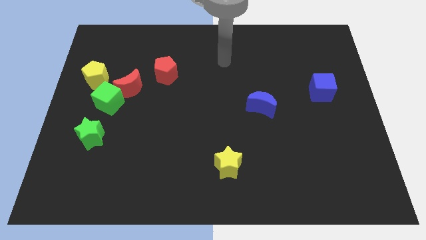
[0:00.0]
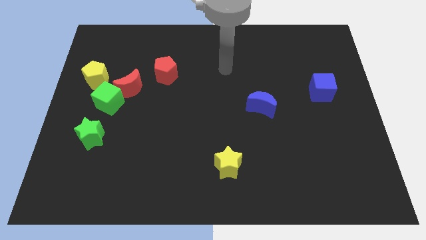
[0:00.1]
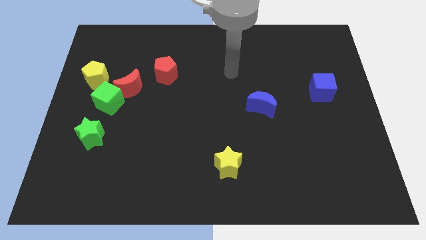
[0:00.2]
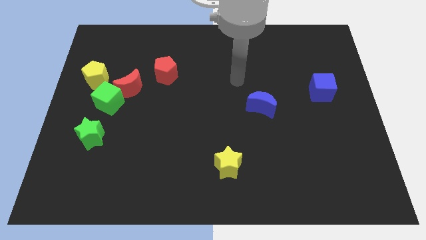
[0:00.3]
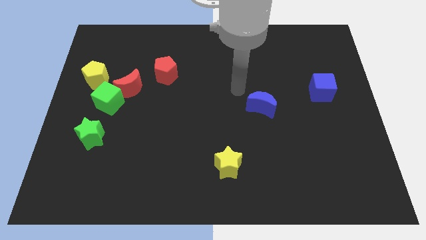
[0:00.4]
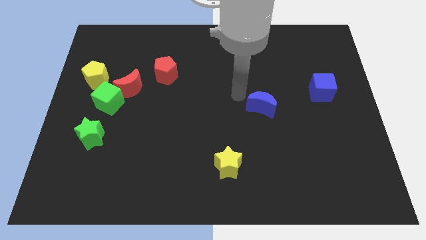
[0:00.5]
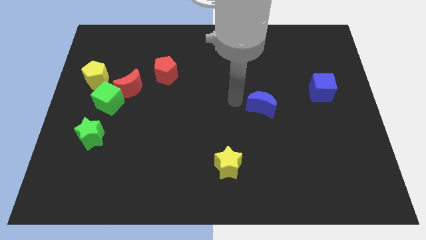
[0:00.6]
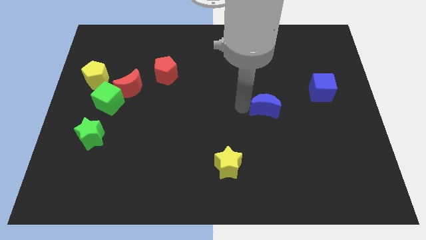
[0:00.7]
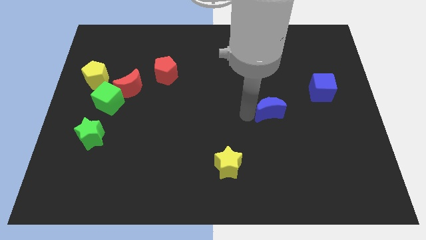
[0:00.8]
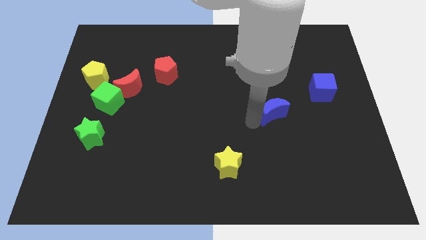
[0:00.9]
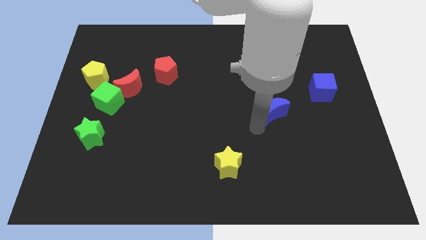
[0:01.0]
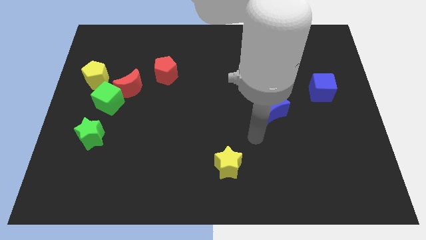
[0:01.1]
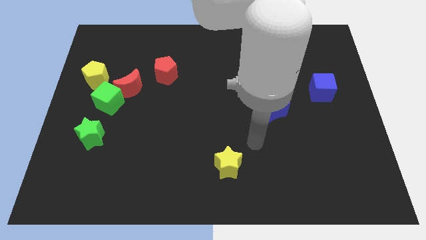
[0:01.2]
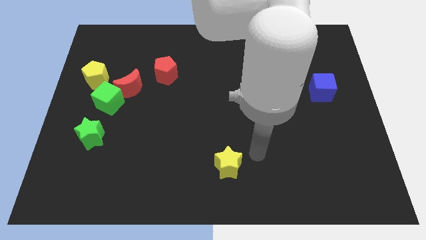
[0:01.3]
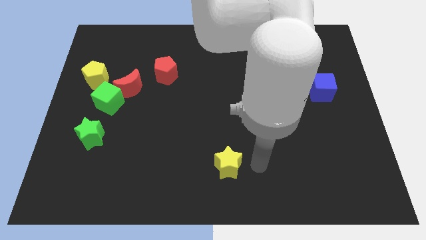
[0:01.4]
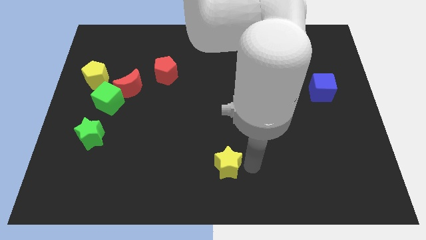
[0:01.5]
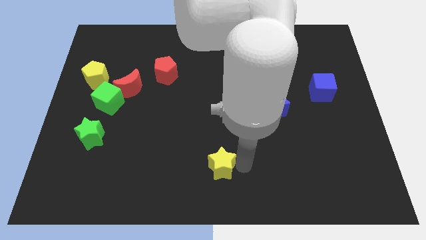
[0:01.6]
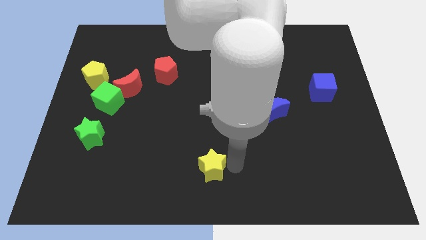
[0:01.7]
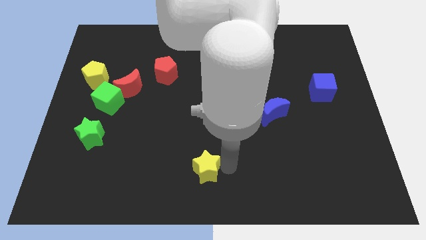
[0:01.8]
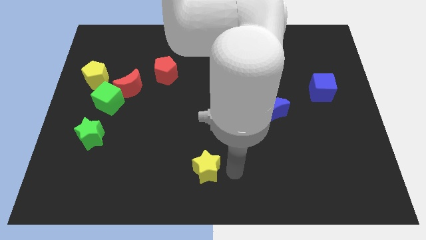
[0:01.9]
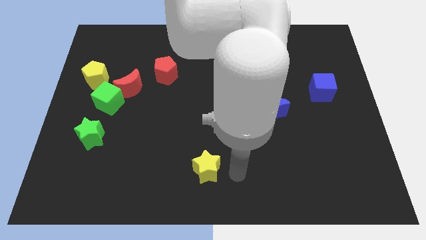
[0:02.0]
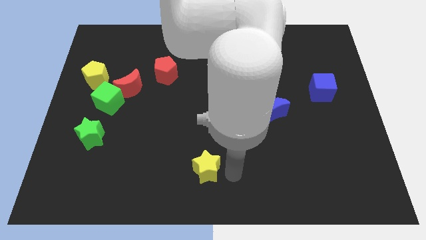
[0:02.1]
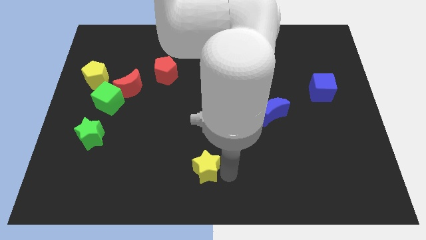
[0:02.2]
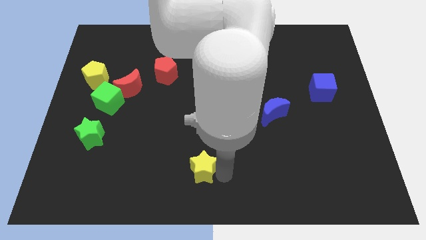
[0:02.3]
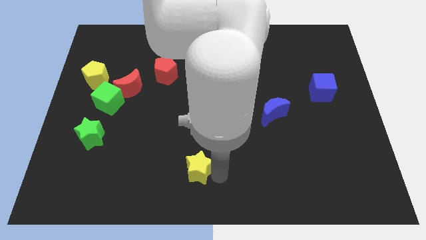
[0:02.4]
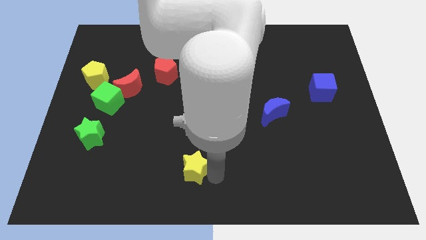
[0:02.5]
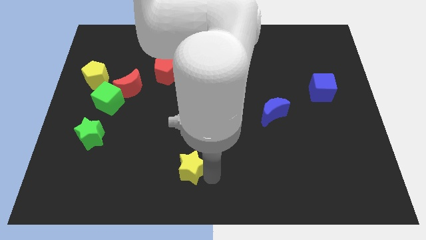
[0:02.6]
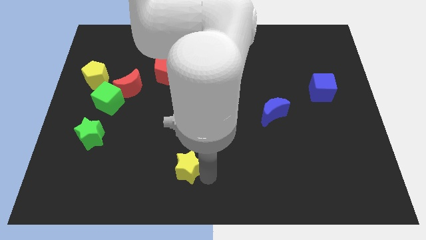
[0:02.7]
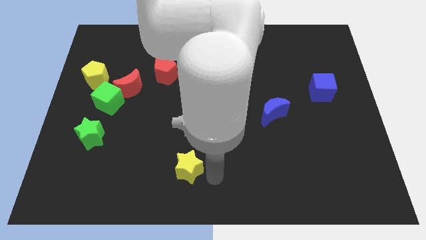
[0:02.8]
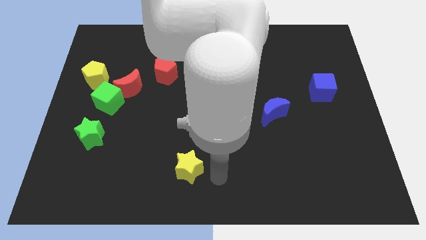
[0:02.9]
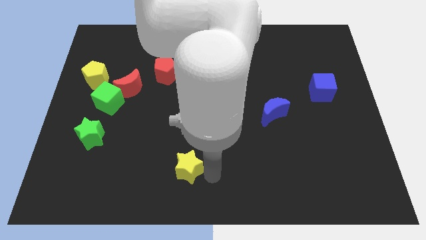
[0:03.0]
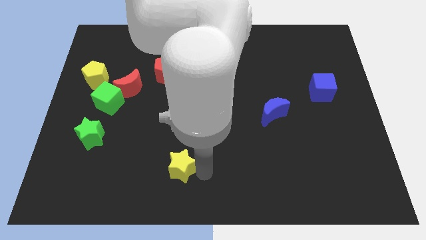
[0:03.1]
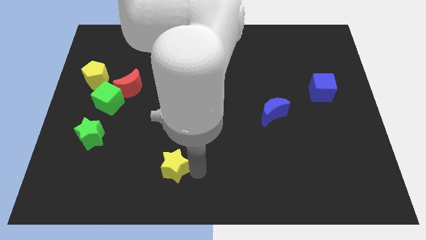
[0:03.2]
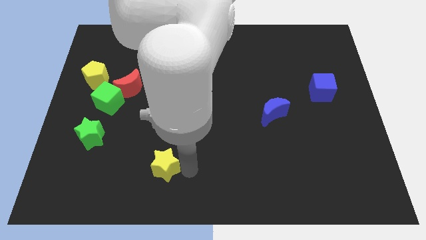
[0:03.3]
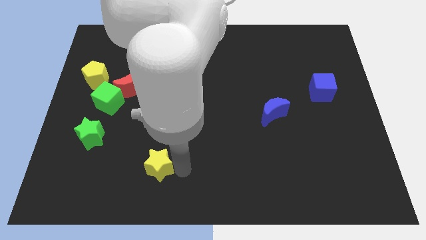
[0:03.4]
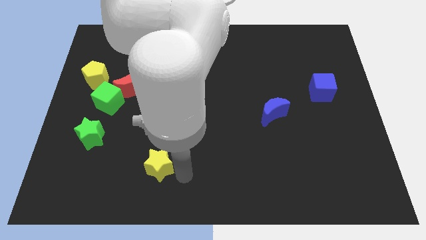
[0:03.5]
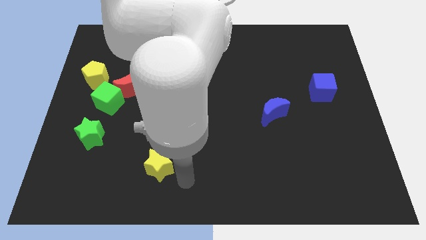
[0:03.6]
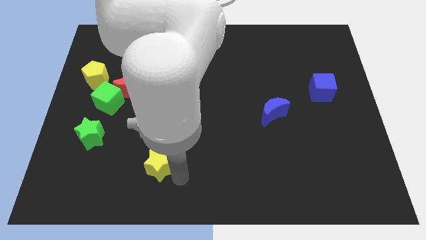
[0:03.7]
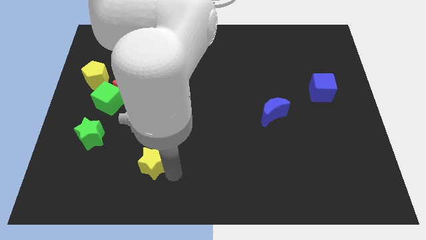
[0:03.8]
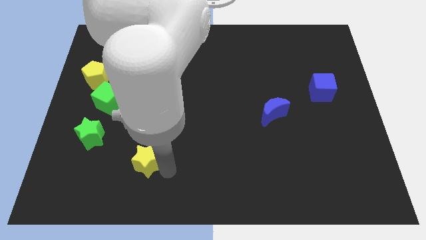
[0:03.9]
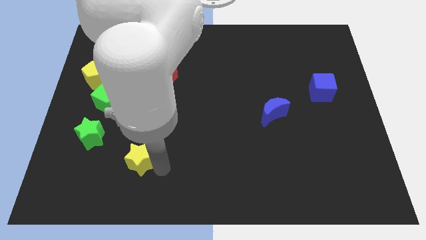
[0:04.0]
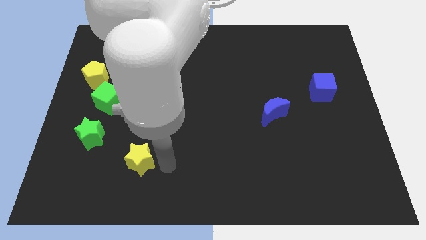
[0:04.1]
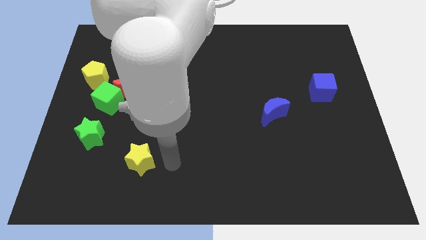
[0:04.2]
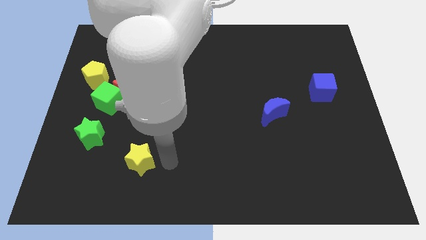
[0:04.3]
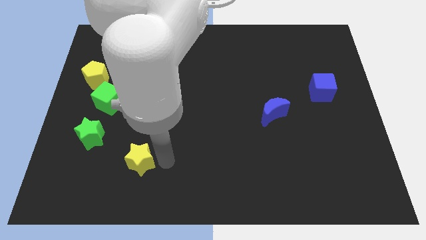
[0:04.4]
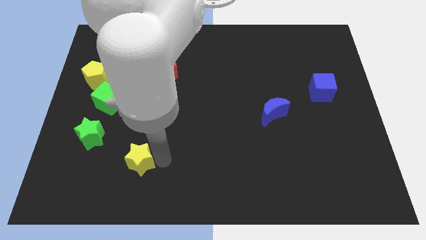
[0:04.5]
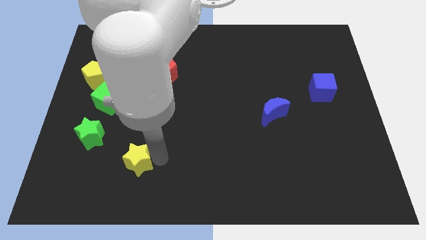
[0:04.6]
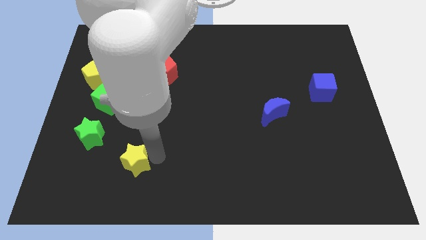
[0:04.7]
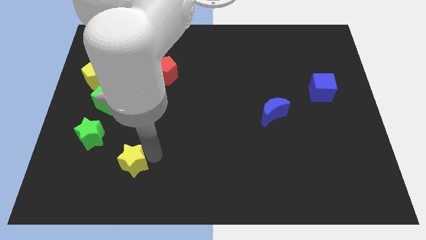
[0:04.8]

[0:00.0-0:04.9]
put the yellow star to the bottom right of the green star

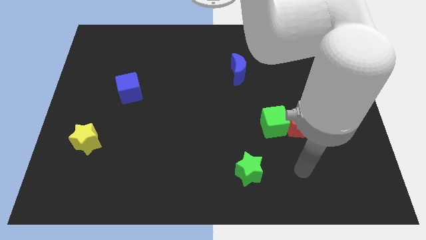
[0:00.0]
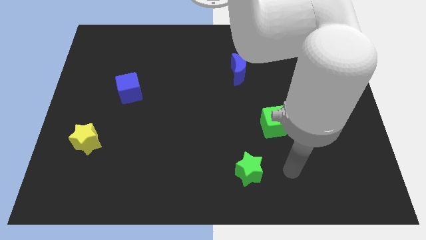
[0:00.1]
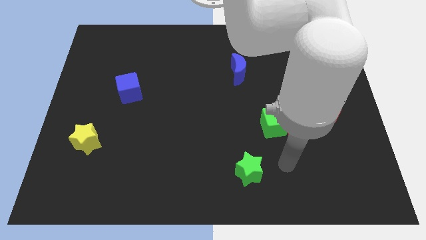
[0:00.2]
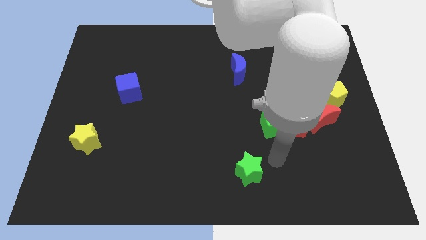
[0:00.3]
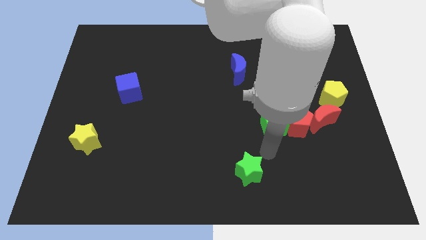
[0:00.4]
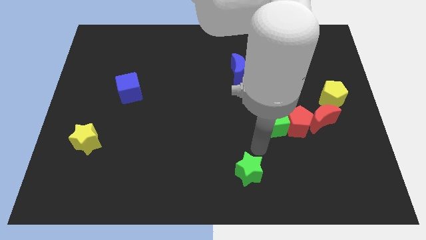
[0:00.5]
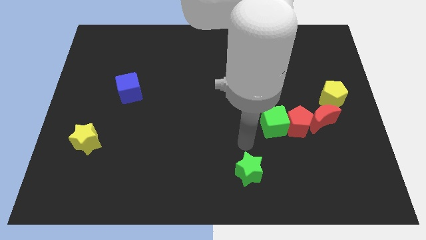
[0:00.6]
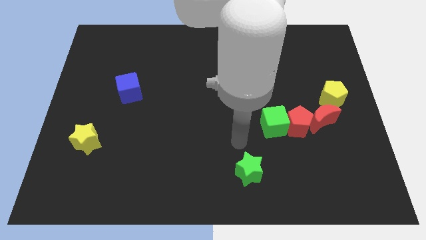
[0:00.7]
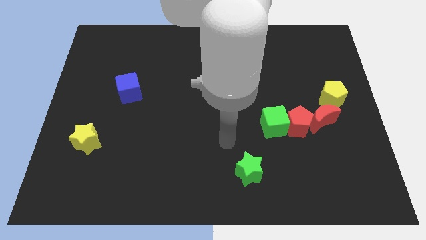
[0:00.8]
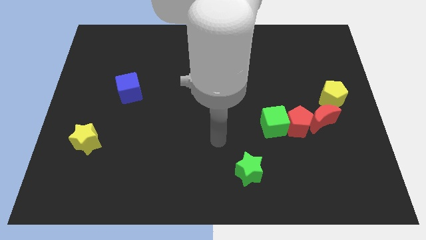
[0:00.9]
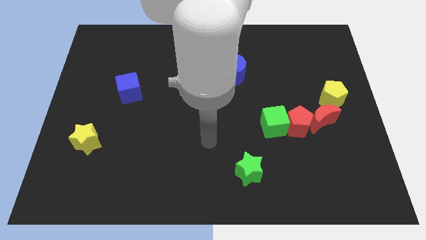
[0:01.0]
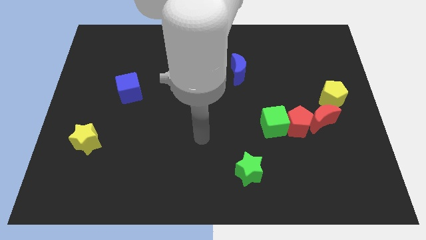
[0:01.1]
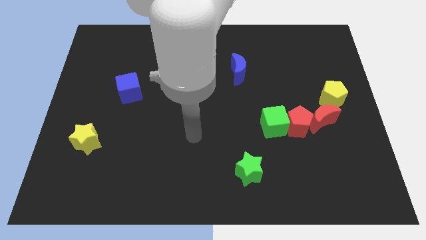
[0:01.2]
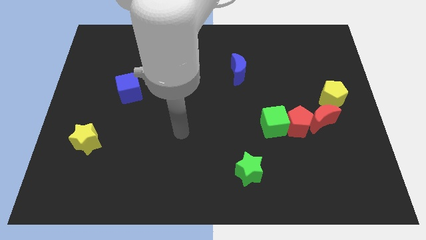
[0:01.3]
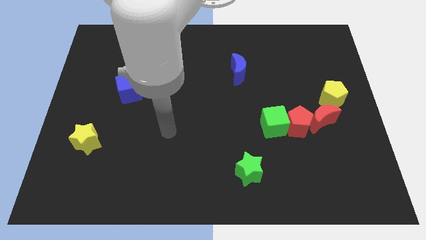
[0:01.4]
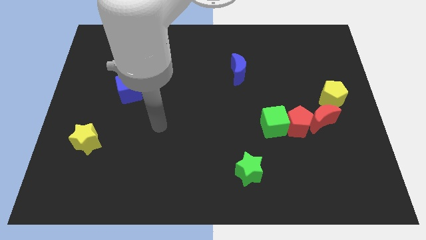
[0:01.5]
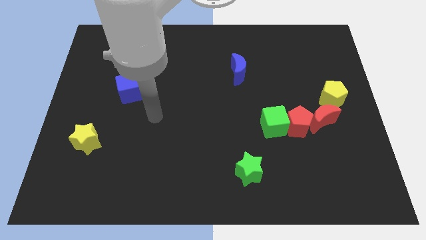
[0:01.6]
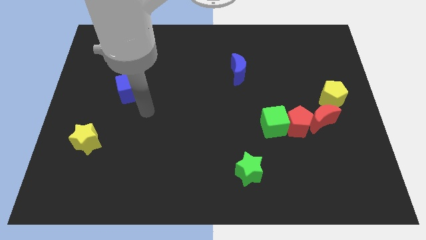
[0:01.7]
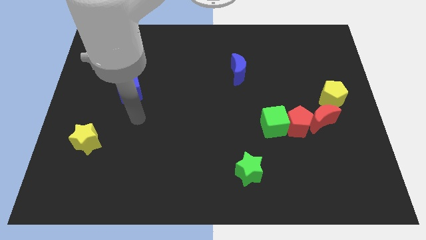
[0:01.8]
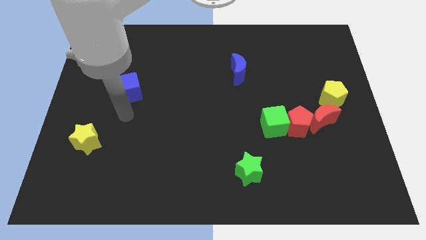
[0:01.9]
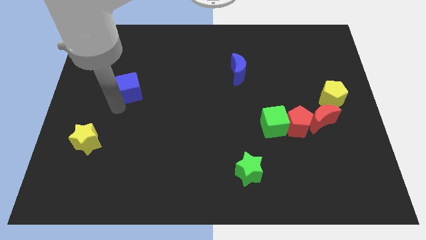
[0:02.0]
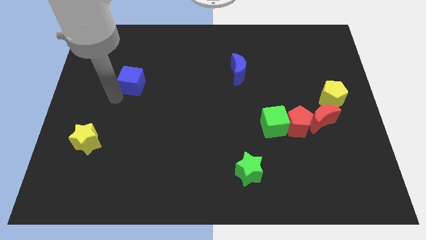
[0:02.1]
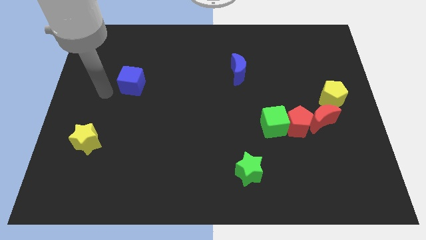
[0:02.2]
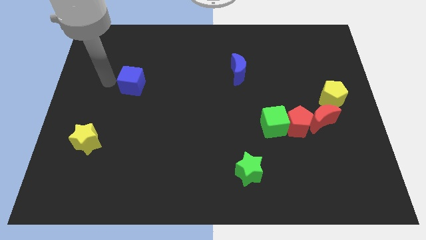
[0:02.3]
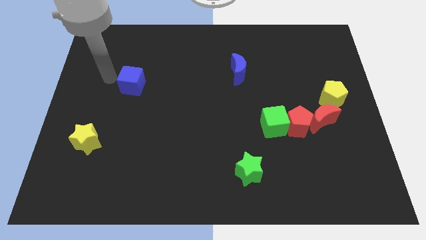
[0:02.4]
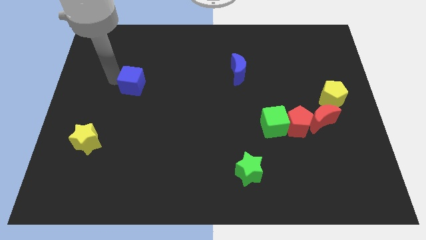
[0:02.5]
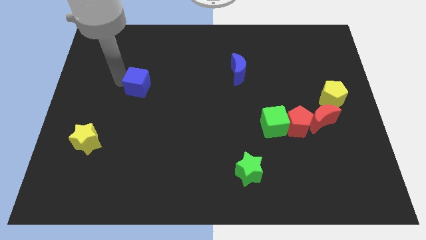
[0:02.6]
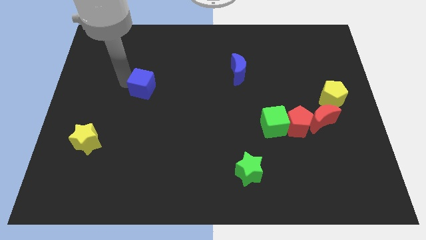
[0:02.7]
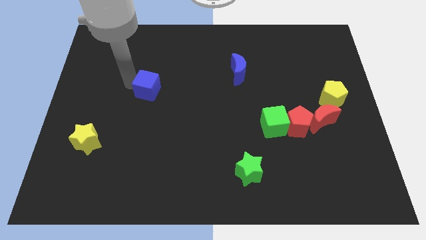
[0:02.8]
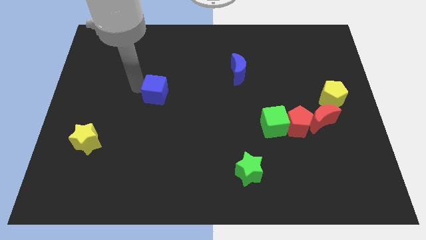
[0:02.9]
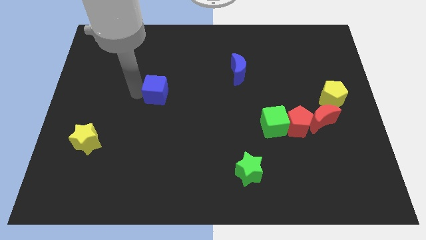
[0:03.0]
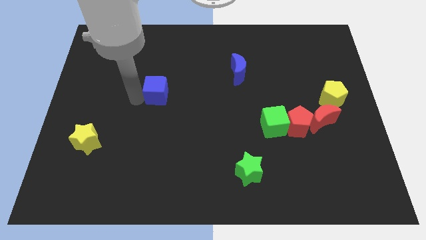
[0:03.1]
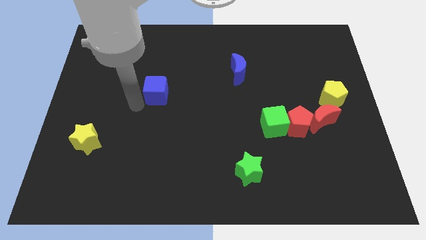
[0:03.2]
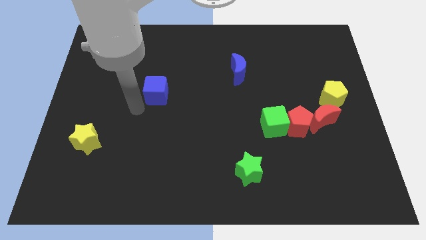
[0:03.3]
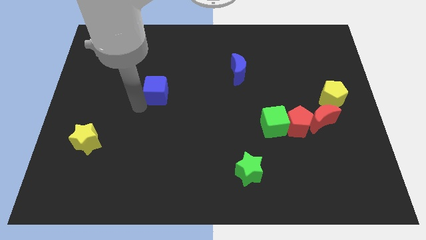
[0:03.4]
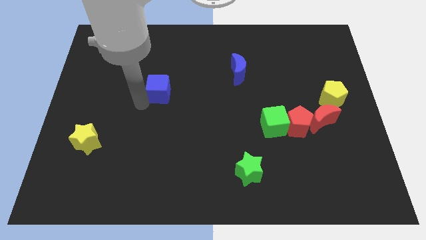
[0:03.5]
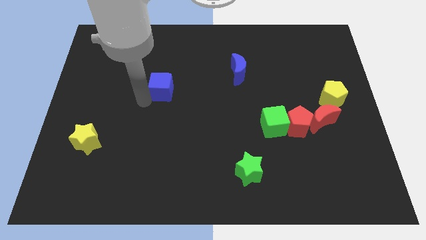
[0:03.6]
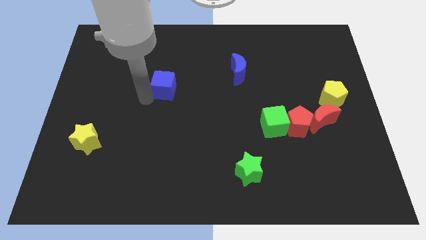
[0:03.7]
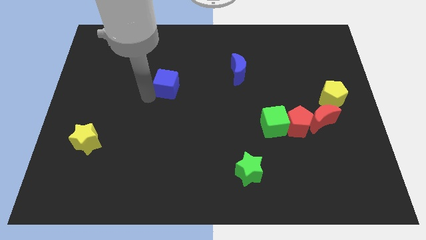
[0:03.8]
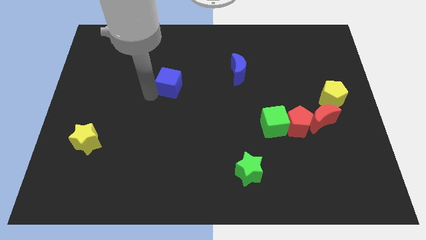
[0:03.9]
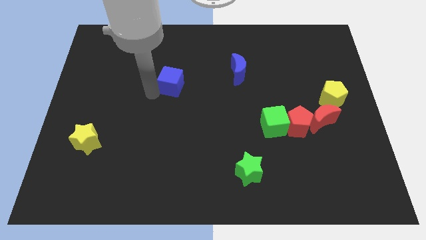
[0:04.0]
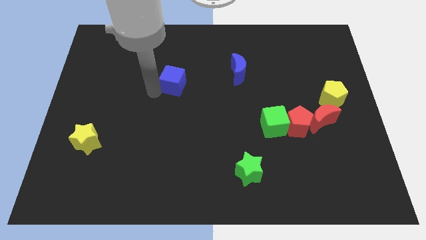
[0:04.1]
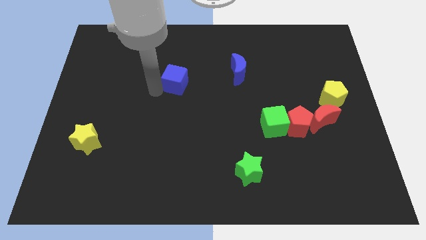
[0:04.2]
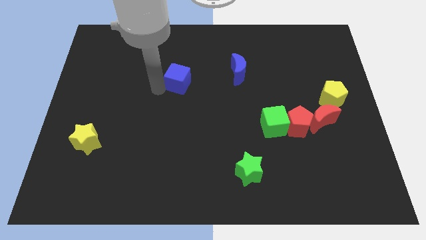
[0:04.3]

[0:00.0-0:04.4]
move the blue cube left of the blue moon
